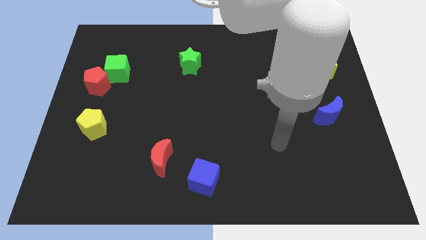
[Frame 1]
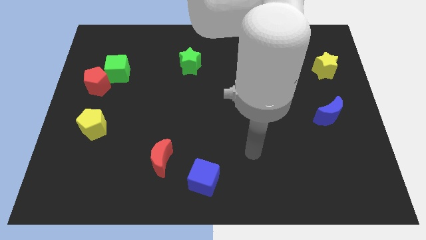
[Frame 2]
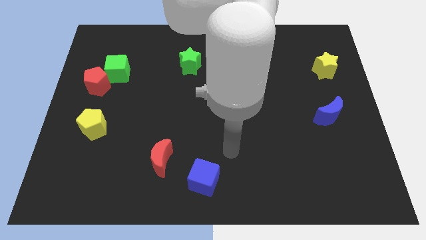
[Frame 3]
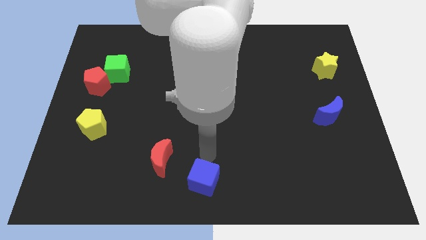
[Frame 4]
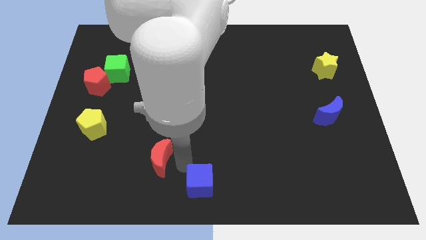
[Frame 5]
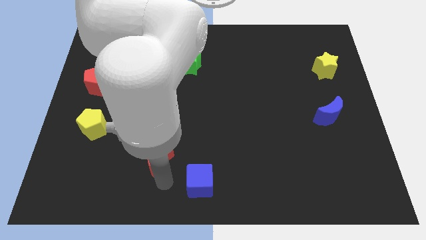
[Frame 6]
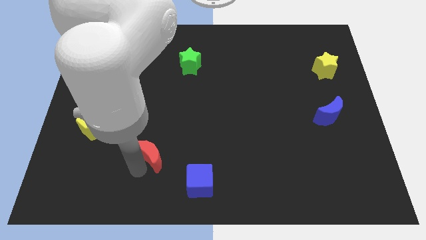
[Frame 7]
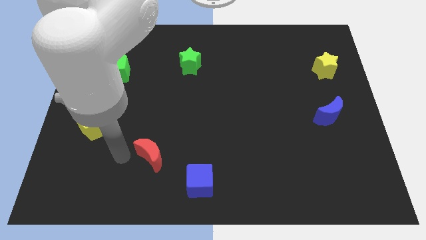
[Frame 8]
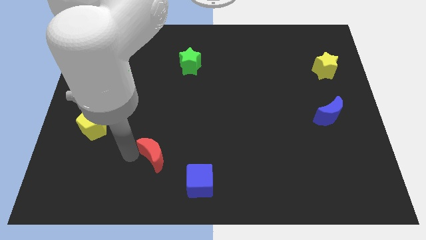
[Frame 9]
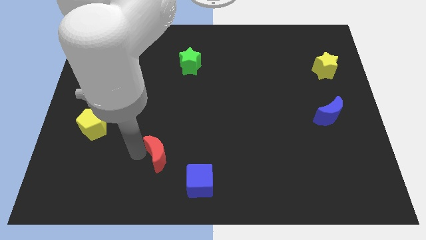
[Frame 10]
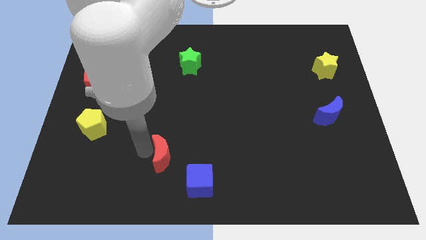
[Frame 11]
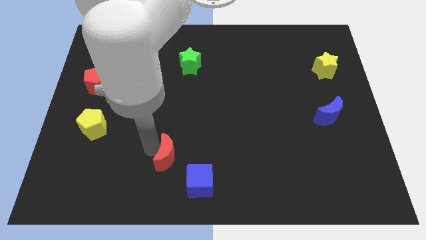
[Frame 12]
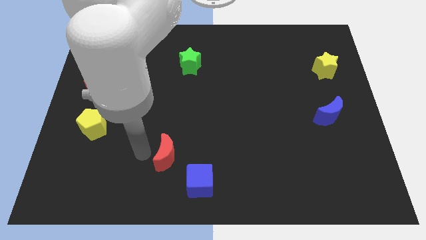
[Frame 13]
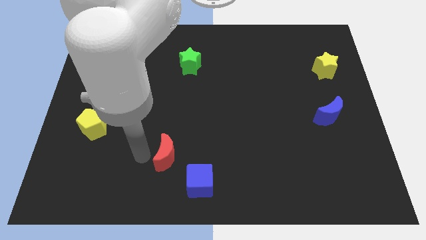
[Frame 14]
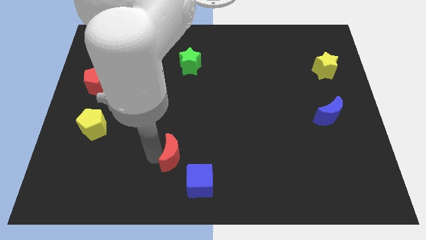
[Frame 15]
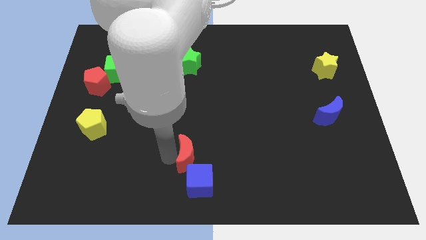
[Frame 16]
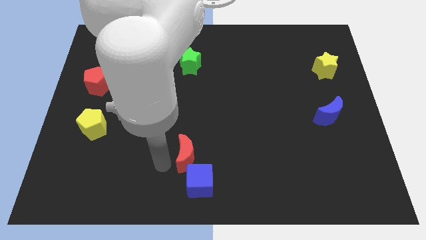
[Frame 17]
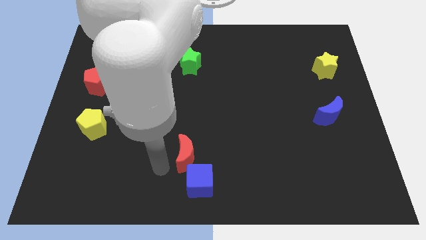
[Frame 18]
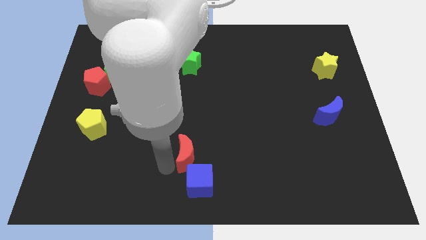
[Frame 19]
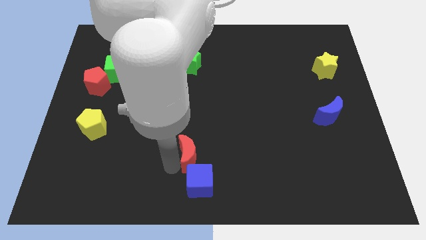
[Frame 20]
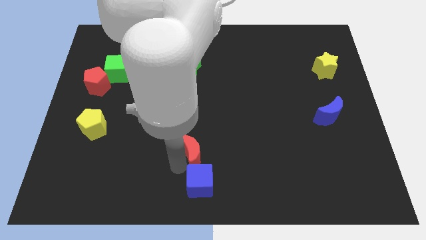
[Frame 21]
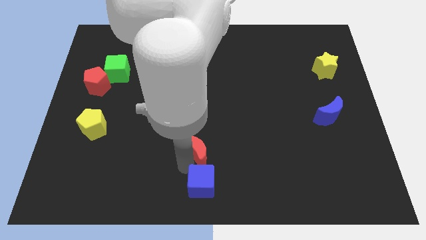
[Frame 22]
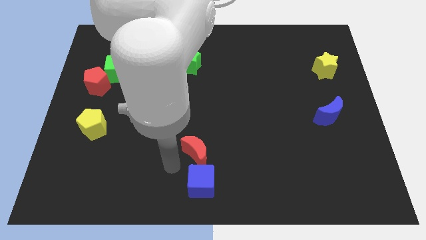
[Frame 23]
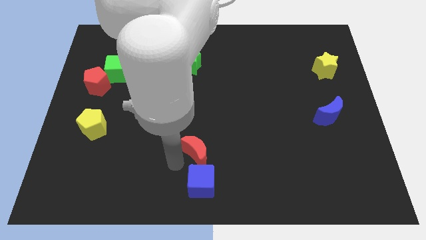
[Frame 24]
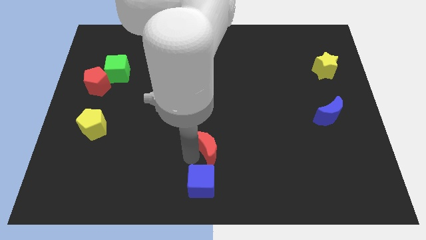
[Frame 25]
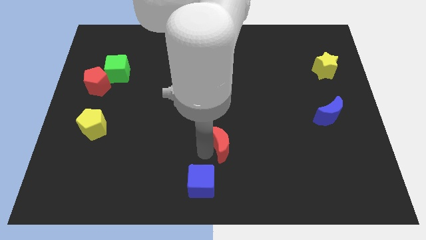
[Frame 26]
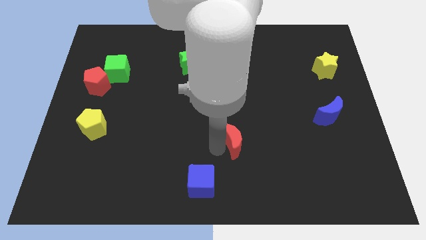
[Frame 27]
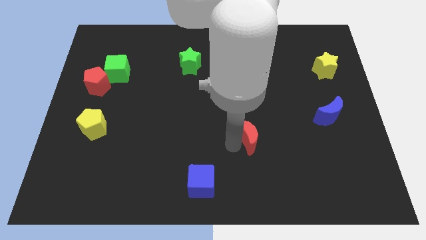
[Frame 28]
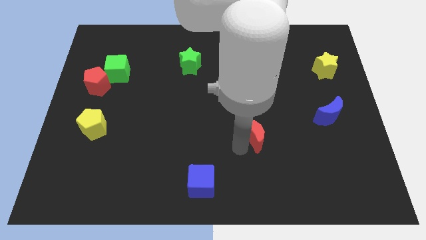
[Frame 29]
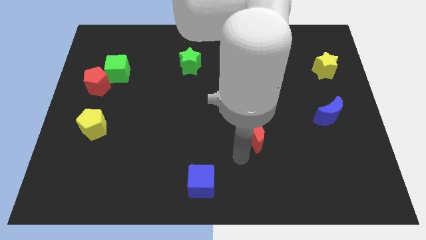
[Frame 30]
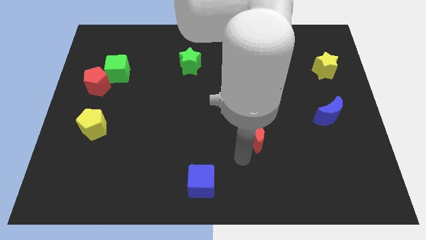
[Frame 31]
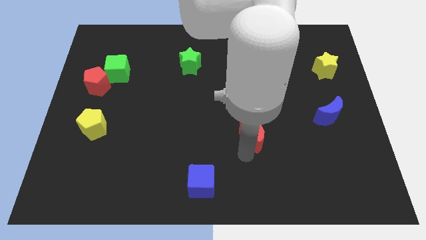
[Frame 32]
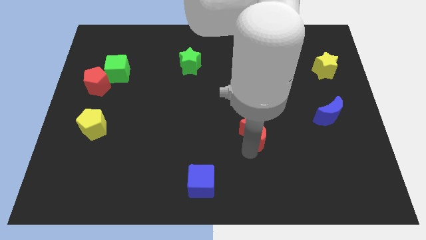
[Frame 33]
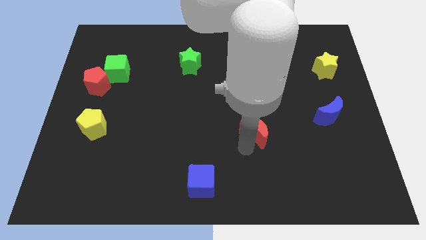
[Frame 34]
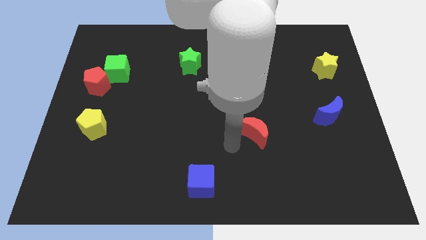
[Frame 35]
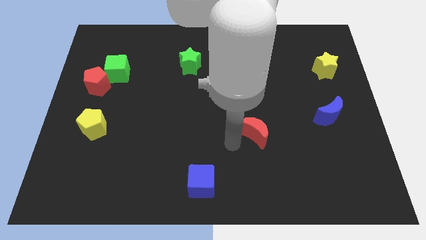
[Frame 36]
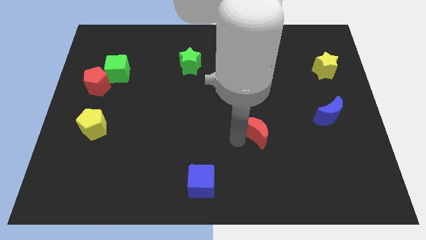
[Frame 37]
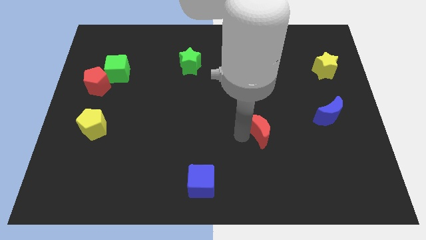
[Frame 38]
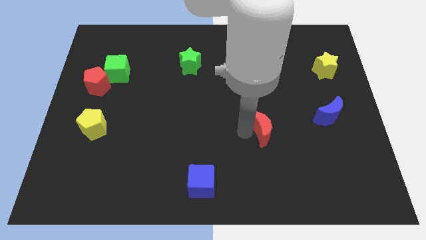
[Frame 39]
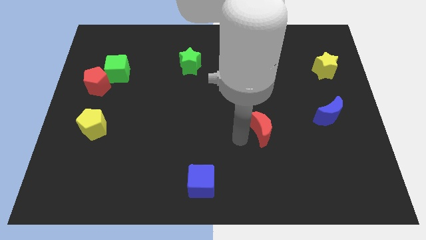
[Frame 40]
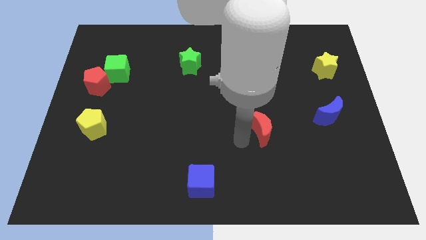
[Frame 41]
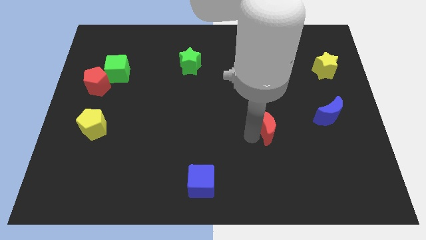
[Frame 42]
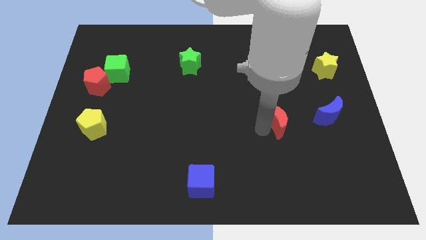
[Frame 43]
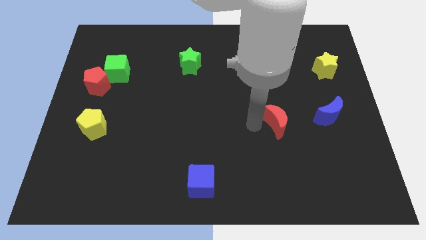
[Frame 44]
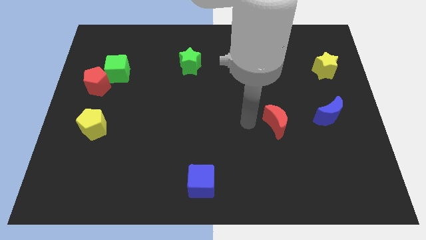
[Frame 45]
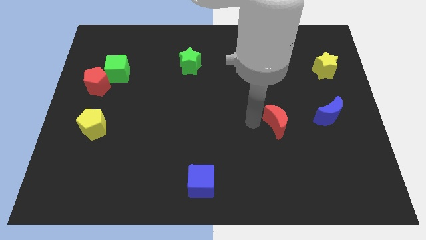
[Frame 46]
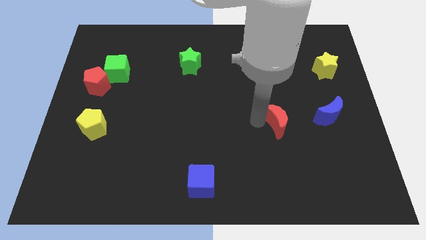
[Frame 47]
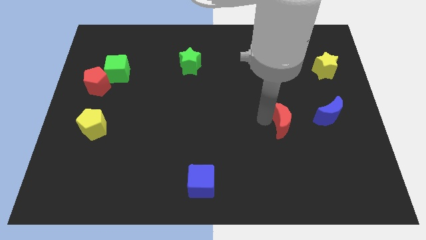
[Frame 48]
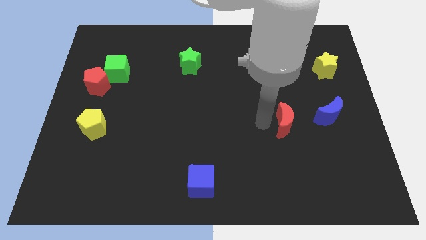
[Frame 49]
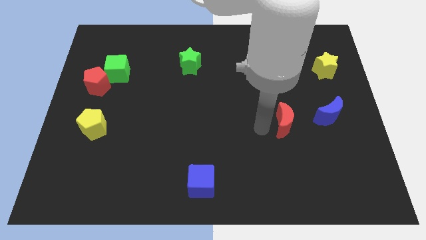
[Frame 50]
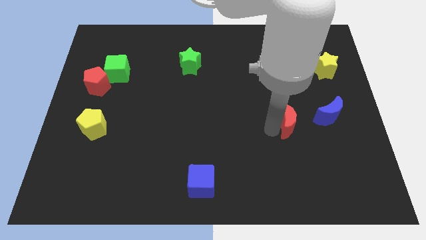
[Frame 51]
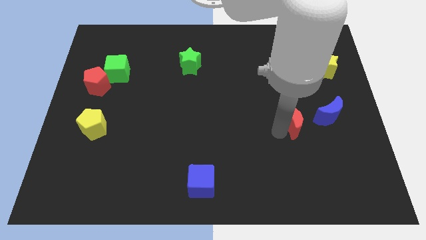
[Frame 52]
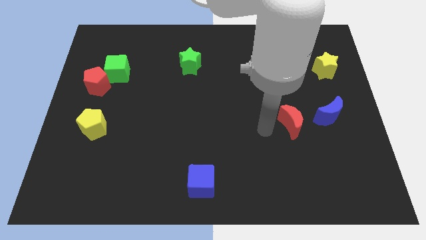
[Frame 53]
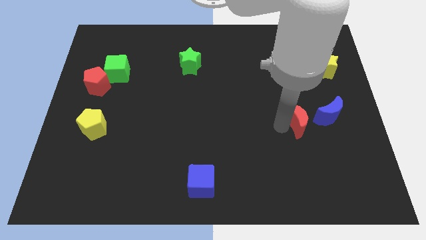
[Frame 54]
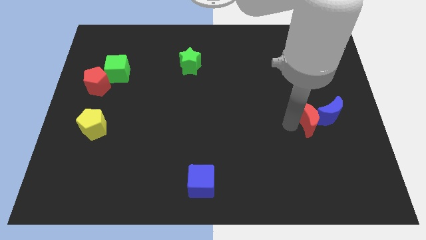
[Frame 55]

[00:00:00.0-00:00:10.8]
push the red moon to the blue moon
